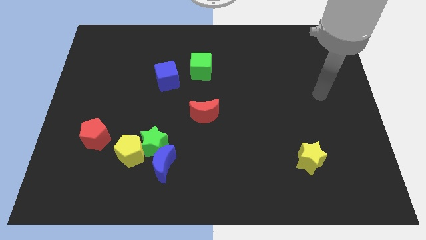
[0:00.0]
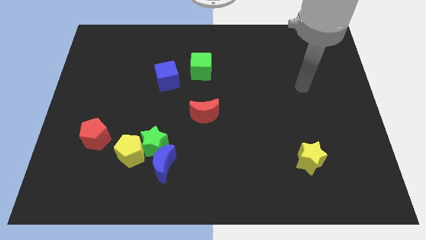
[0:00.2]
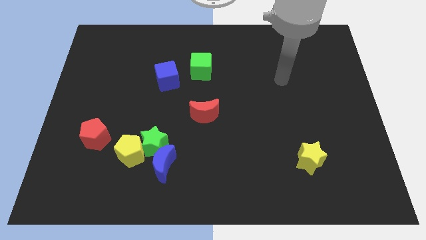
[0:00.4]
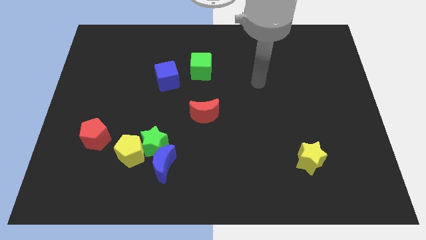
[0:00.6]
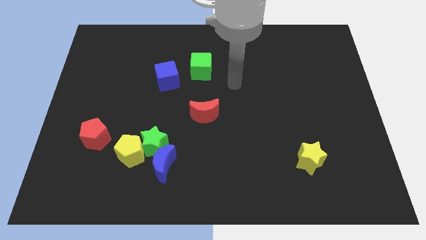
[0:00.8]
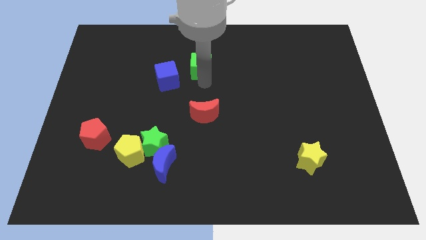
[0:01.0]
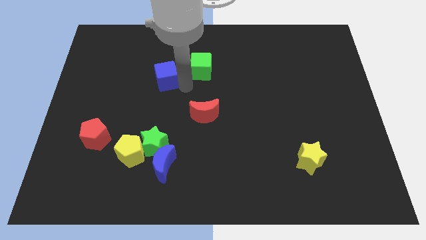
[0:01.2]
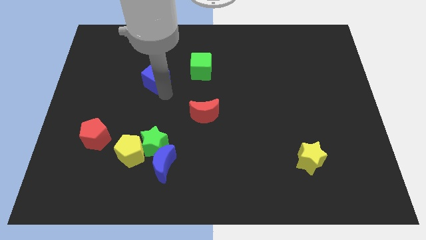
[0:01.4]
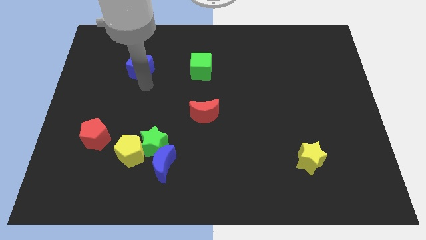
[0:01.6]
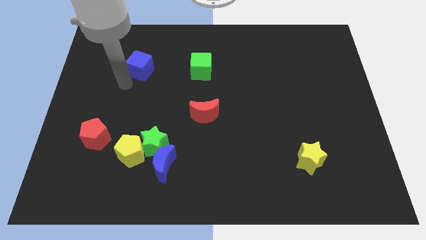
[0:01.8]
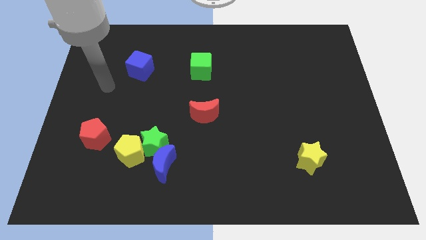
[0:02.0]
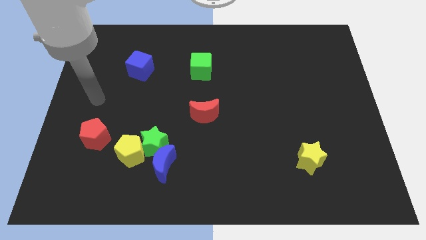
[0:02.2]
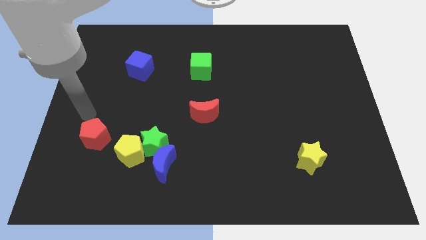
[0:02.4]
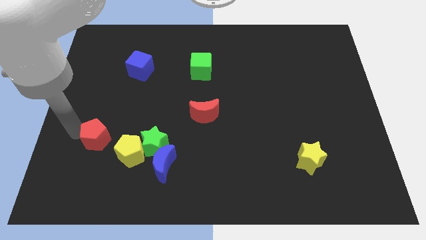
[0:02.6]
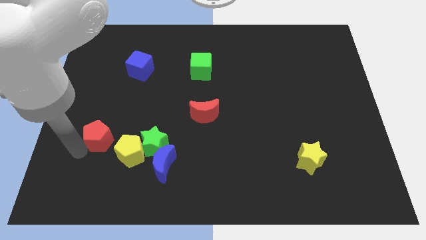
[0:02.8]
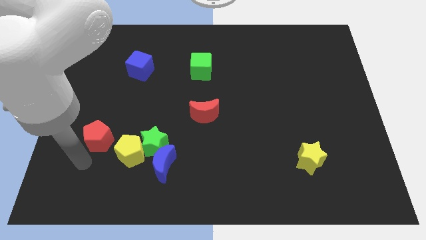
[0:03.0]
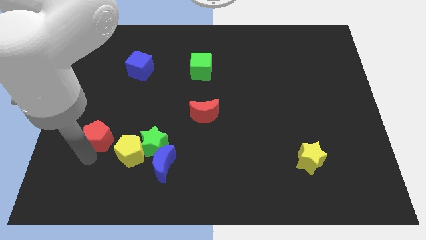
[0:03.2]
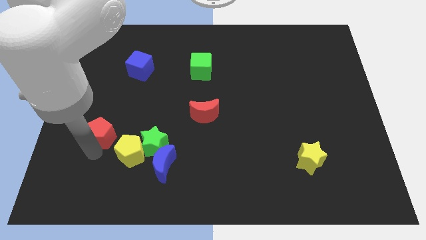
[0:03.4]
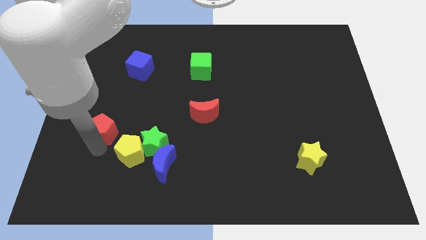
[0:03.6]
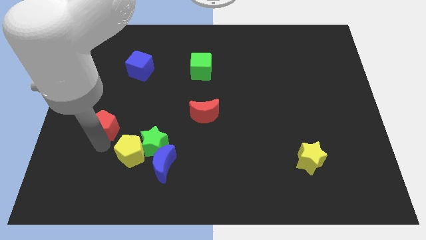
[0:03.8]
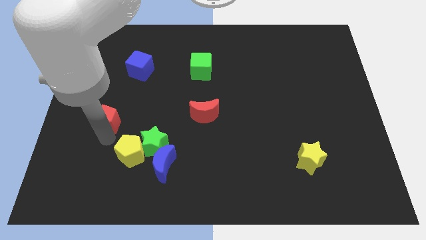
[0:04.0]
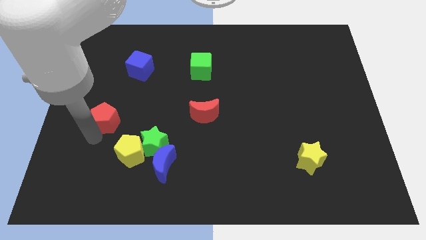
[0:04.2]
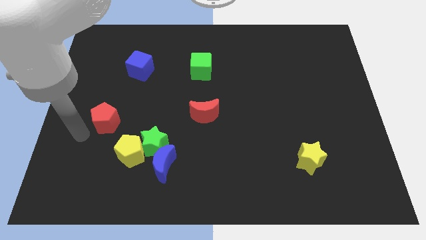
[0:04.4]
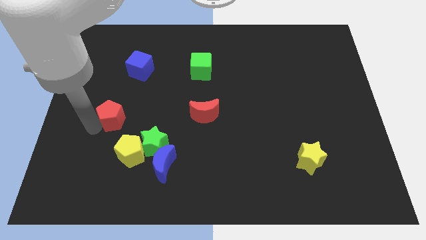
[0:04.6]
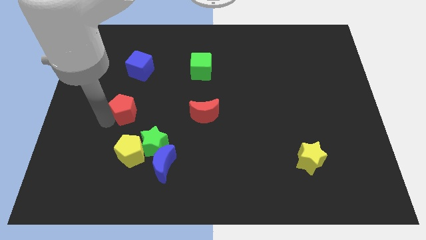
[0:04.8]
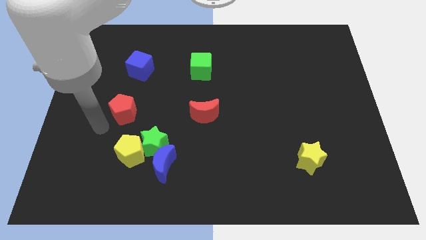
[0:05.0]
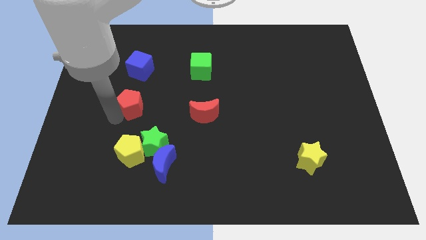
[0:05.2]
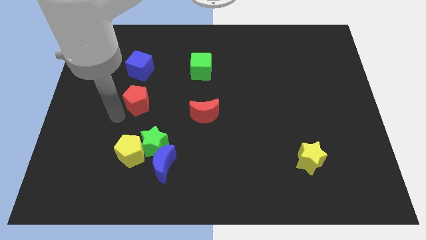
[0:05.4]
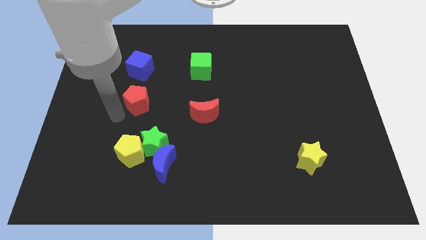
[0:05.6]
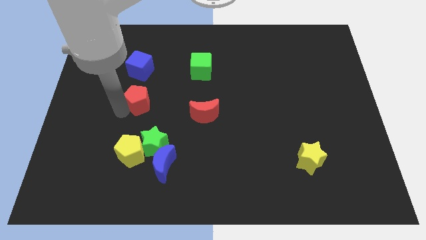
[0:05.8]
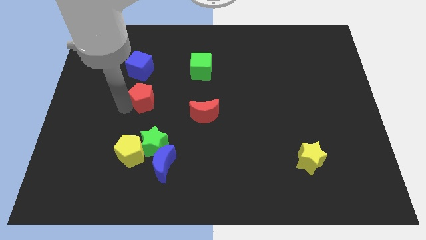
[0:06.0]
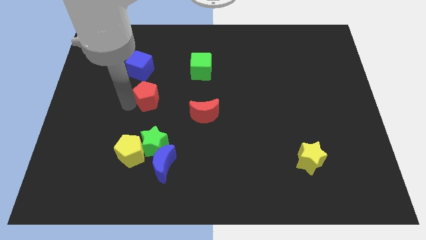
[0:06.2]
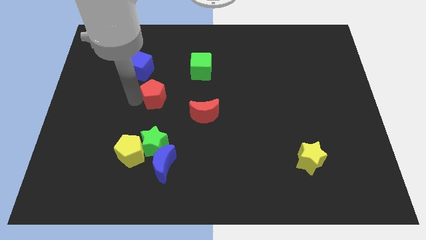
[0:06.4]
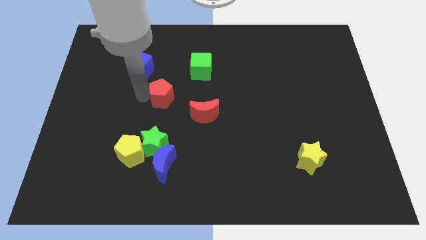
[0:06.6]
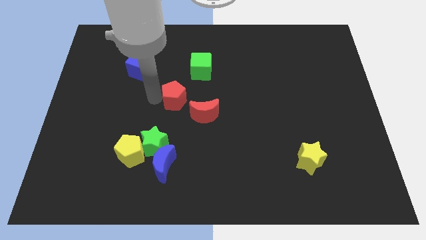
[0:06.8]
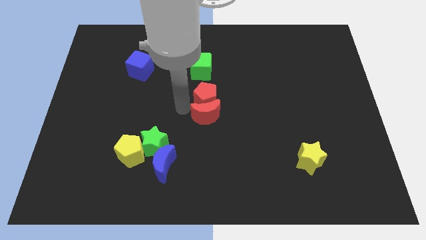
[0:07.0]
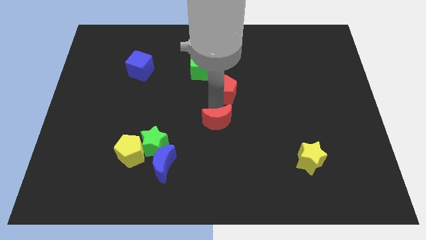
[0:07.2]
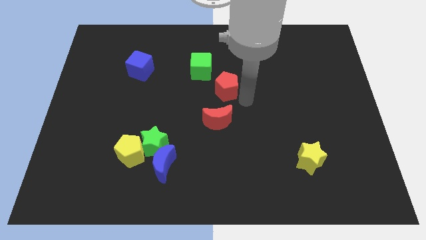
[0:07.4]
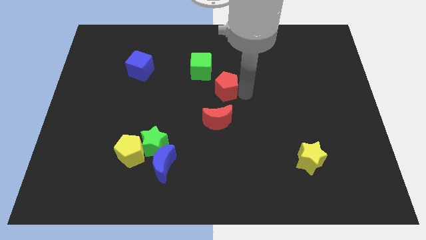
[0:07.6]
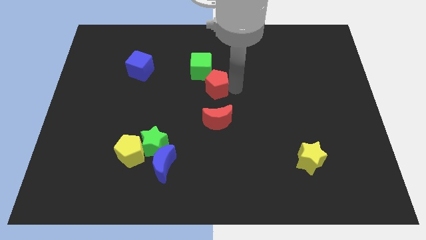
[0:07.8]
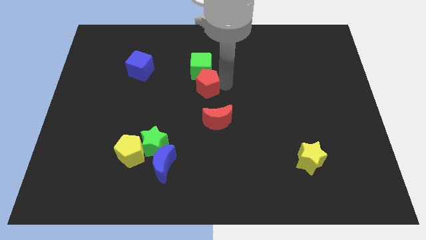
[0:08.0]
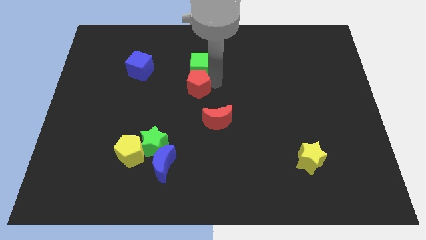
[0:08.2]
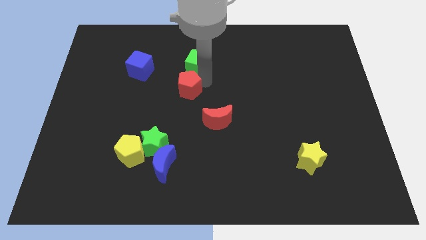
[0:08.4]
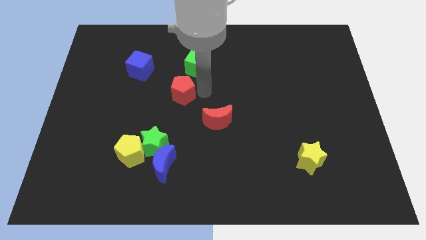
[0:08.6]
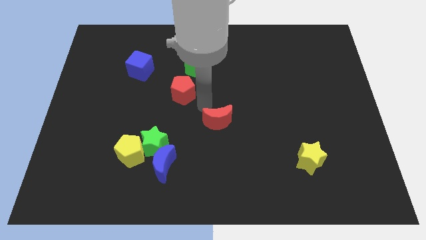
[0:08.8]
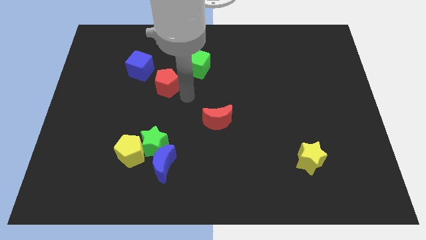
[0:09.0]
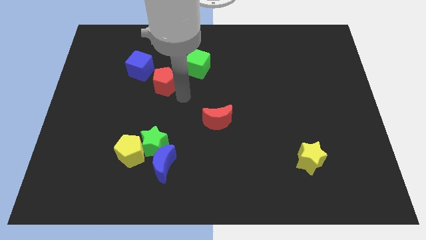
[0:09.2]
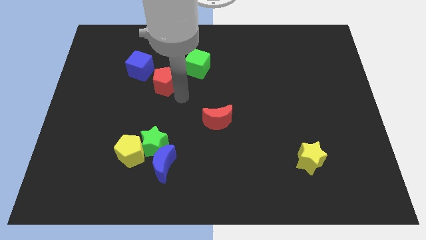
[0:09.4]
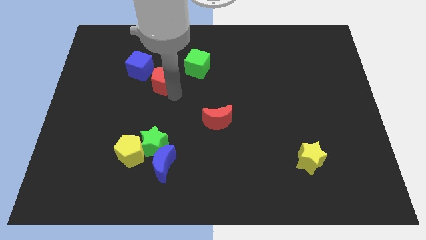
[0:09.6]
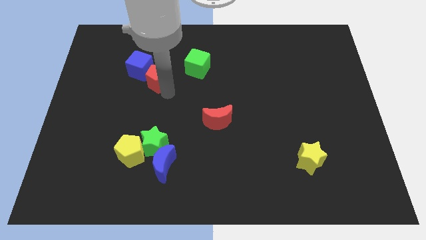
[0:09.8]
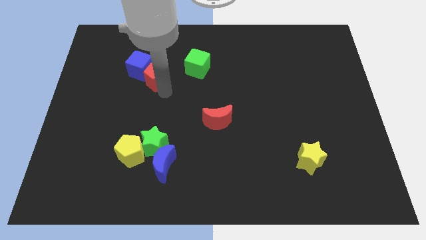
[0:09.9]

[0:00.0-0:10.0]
slide the red pentagon to the blue cube

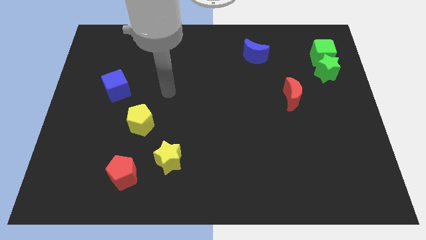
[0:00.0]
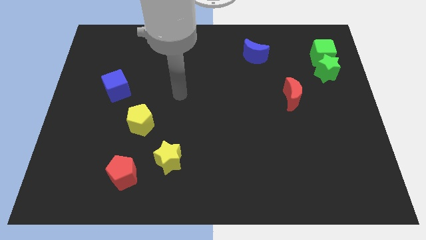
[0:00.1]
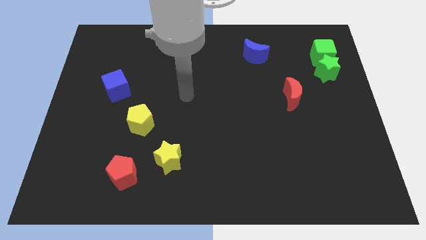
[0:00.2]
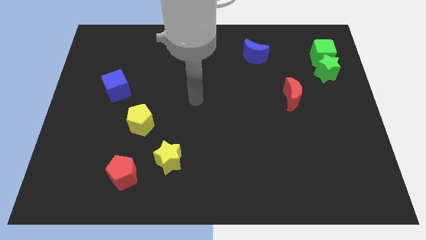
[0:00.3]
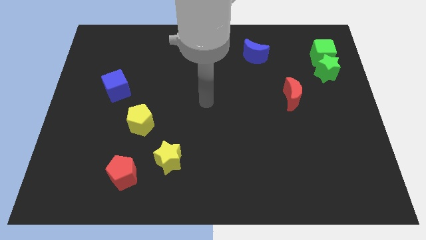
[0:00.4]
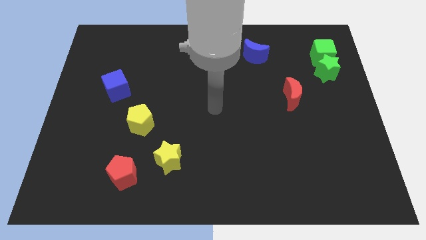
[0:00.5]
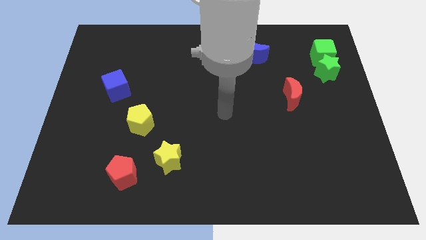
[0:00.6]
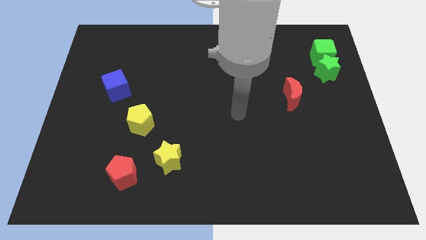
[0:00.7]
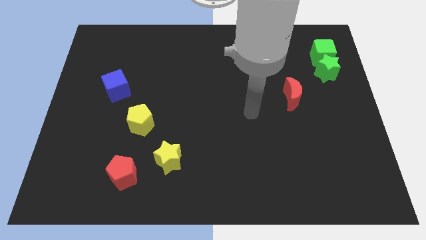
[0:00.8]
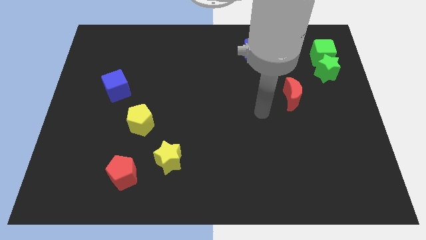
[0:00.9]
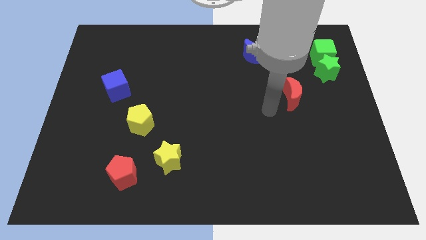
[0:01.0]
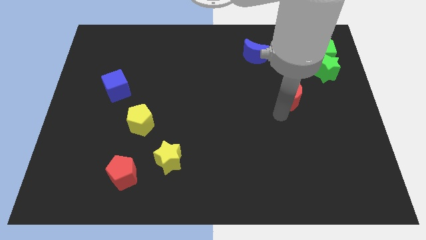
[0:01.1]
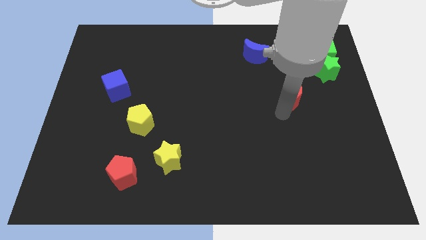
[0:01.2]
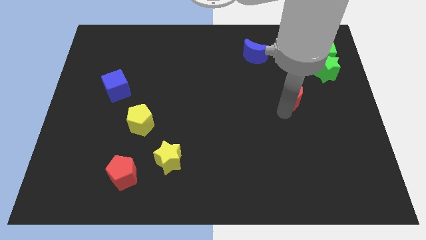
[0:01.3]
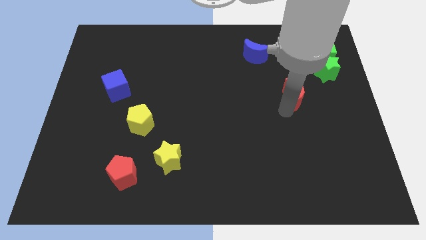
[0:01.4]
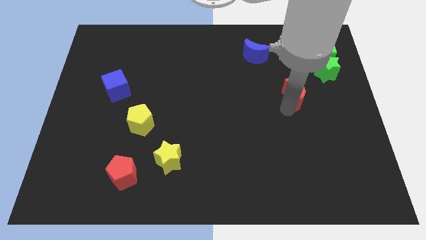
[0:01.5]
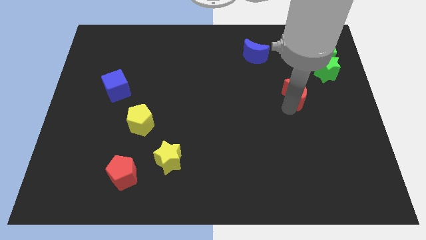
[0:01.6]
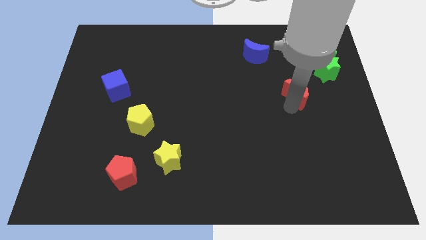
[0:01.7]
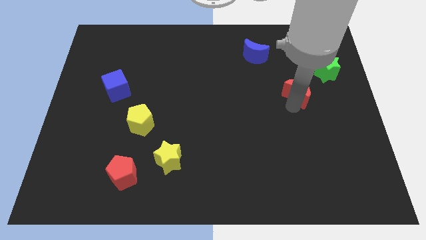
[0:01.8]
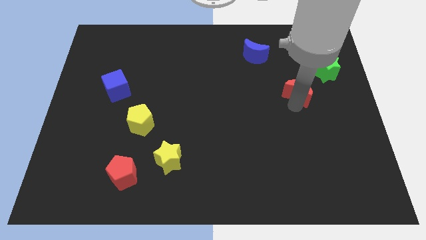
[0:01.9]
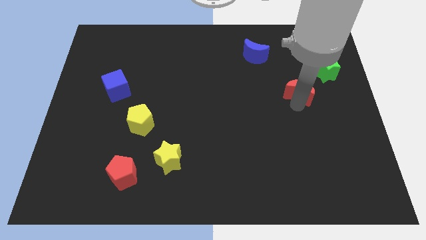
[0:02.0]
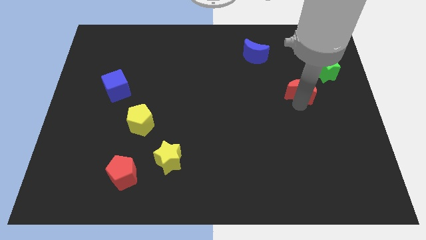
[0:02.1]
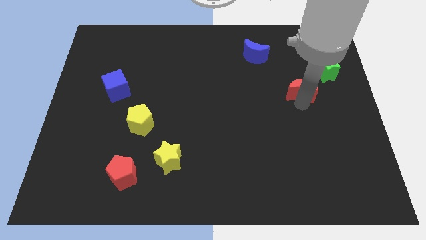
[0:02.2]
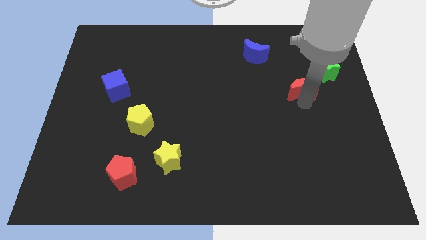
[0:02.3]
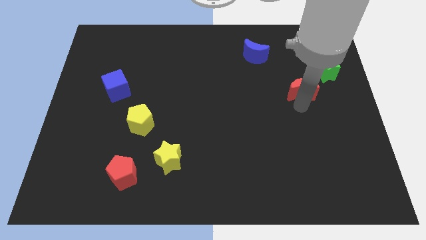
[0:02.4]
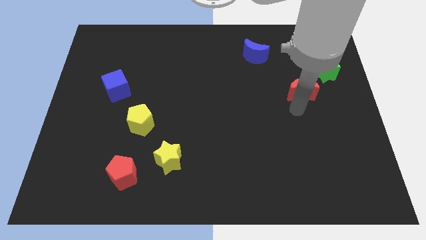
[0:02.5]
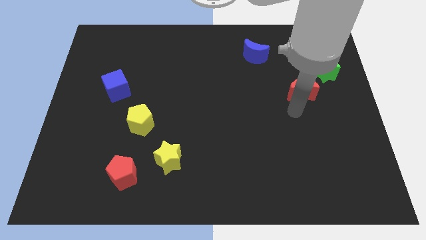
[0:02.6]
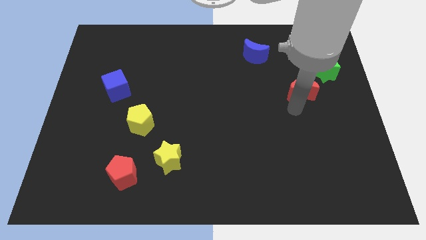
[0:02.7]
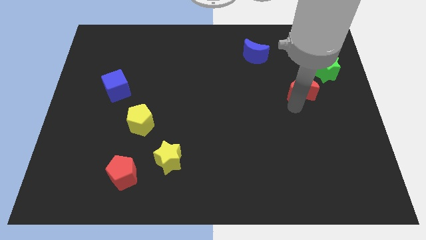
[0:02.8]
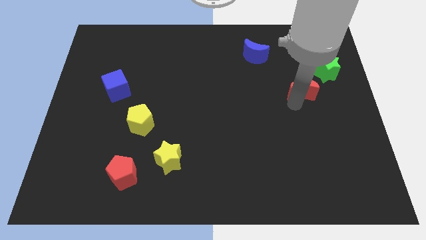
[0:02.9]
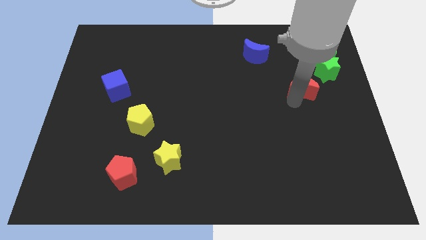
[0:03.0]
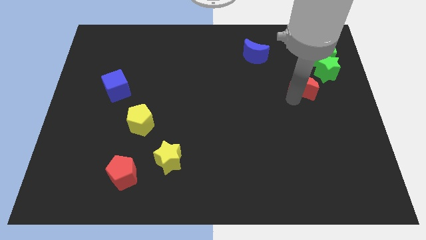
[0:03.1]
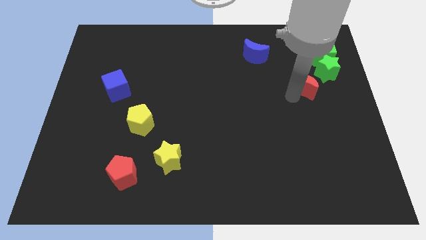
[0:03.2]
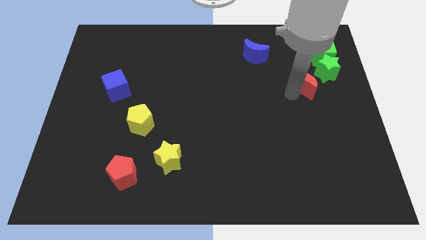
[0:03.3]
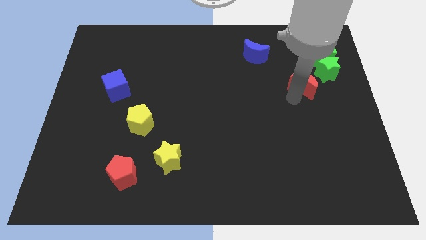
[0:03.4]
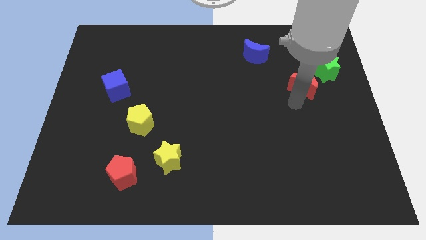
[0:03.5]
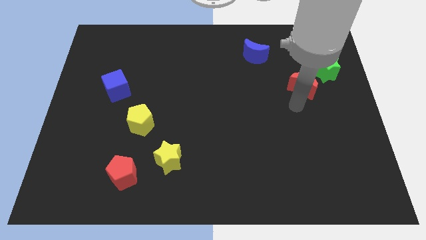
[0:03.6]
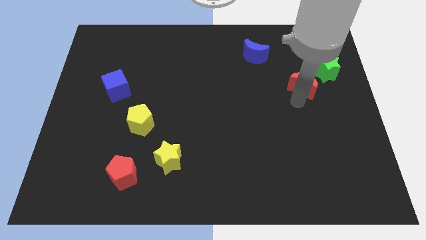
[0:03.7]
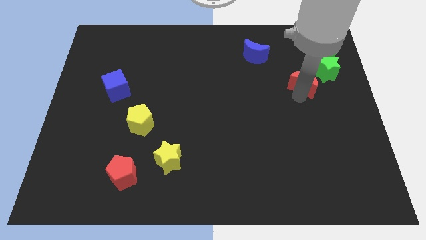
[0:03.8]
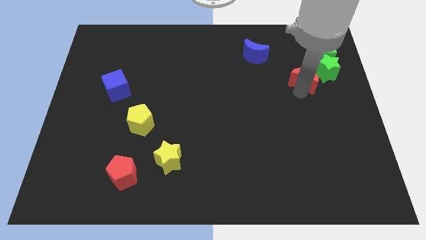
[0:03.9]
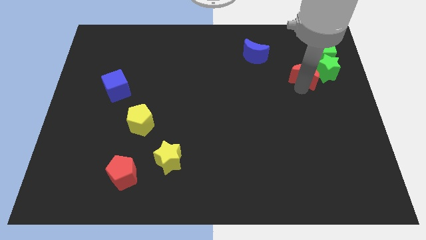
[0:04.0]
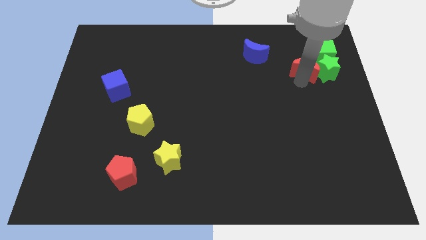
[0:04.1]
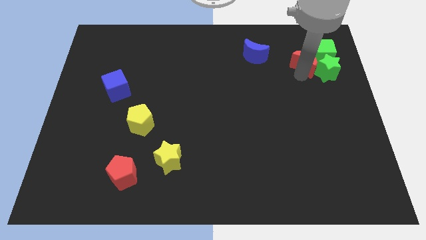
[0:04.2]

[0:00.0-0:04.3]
push the red moon close to the green cube
